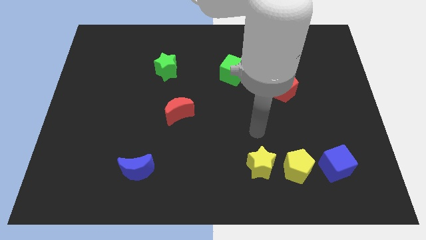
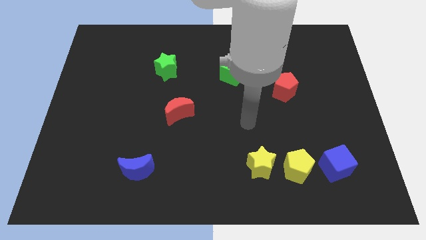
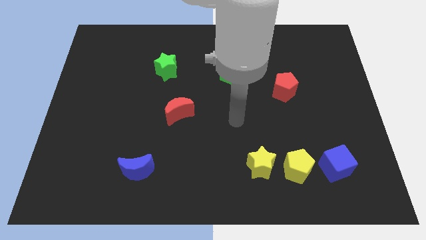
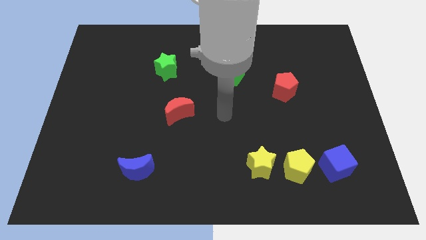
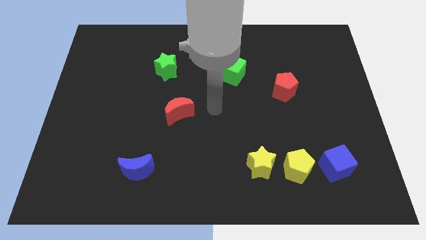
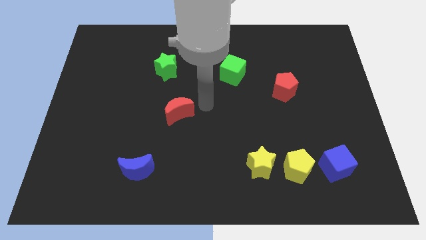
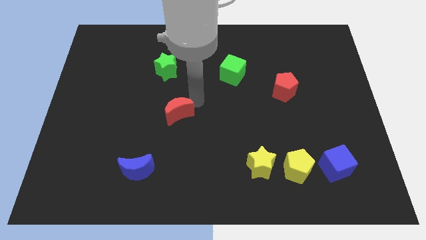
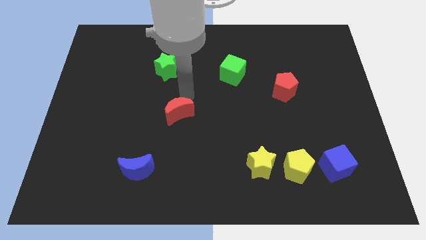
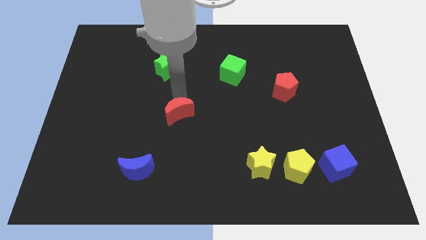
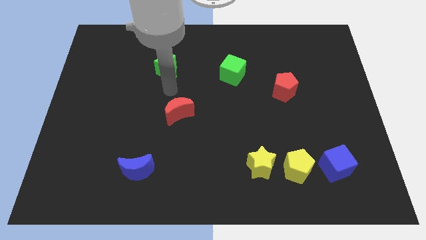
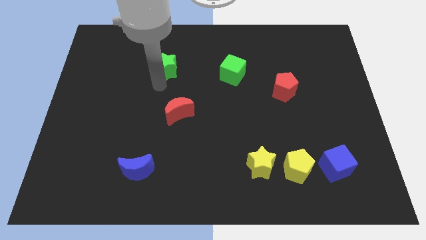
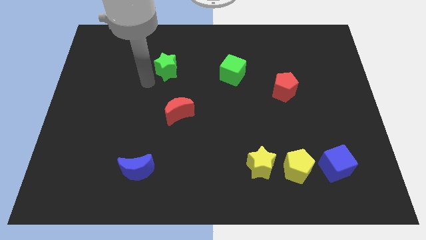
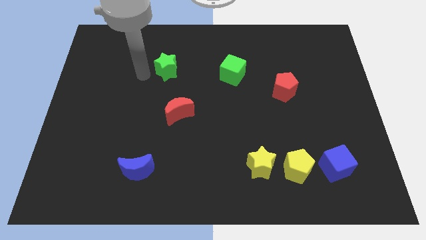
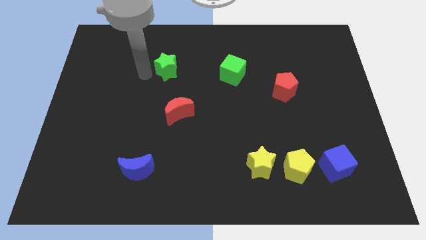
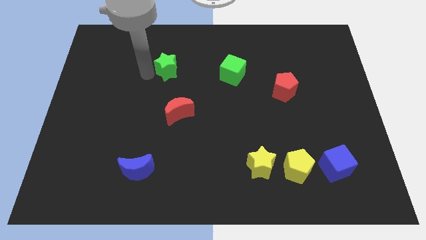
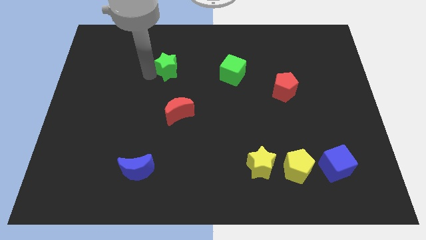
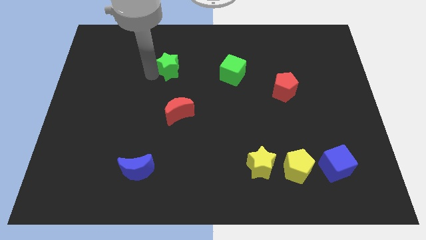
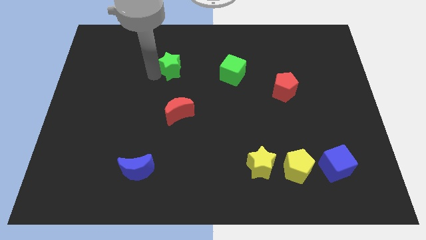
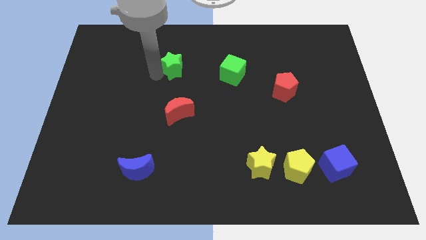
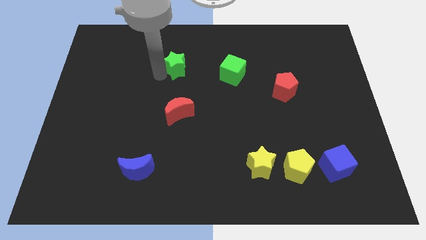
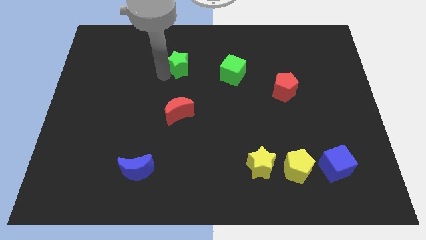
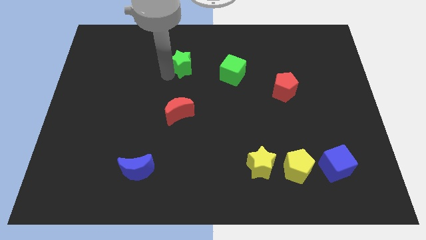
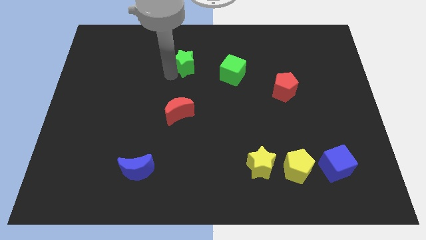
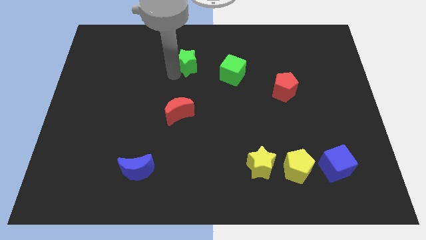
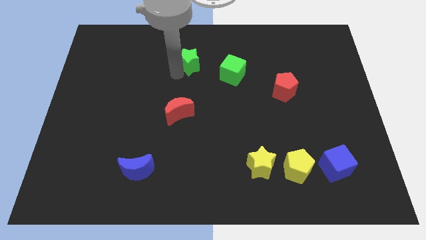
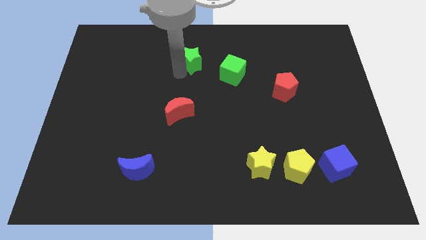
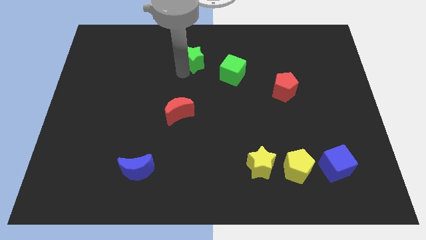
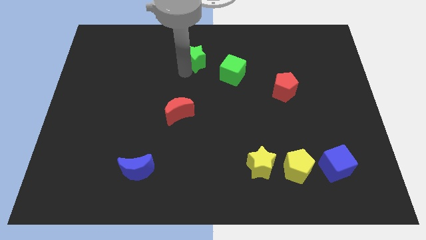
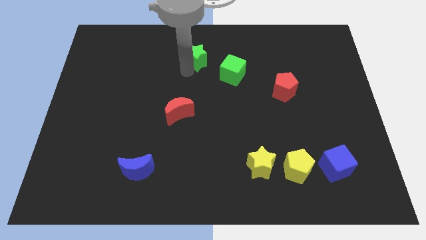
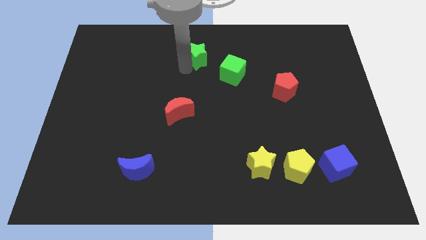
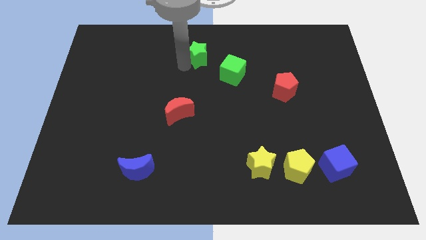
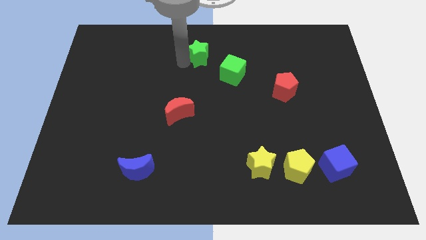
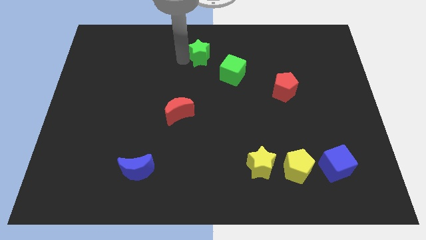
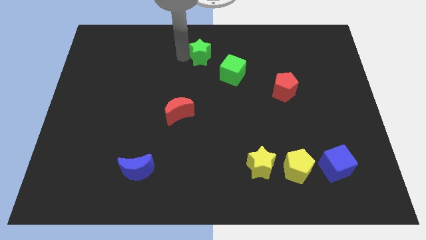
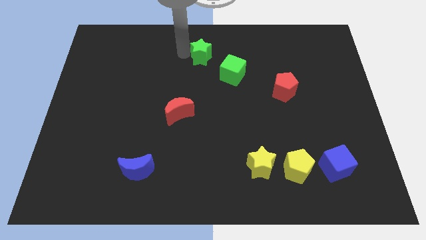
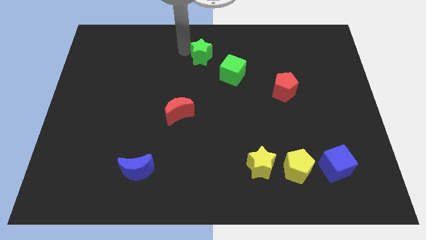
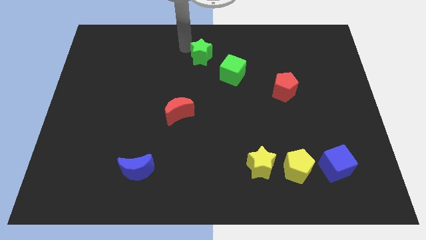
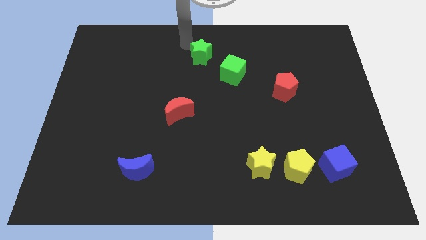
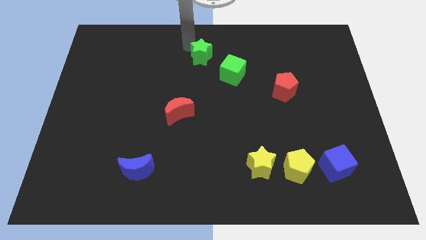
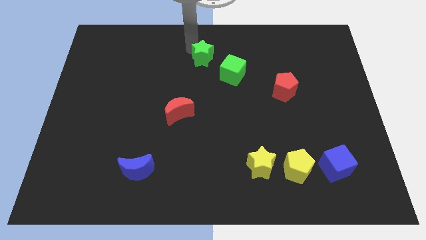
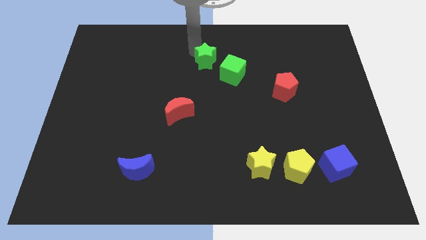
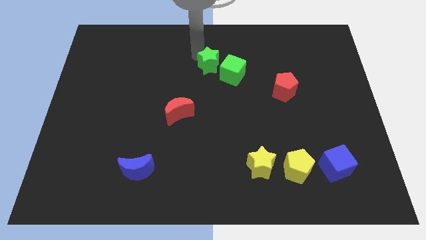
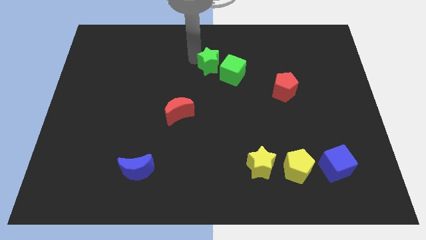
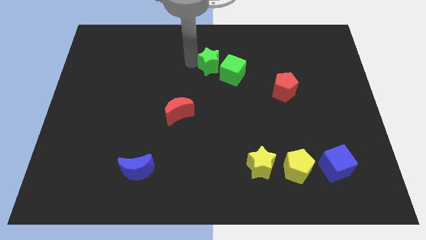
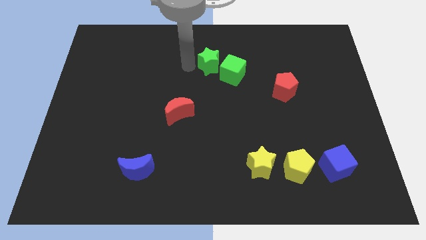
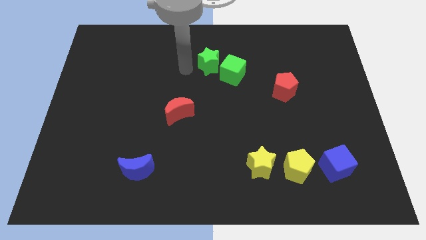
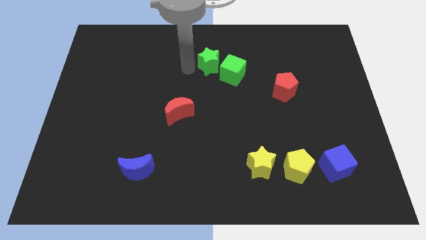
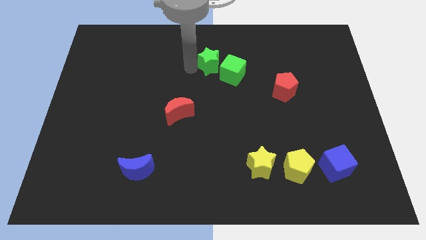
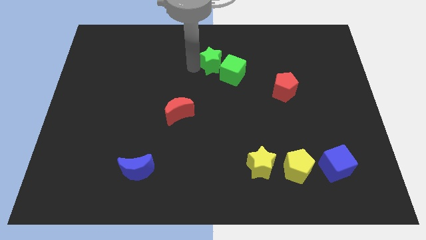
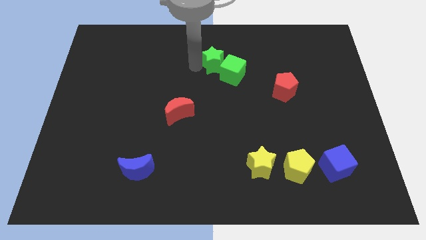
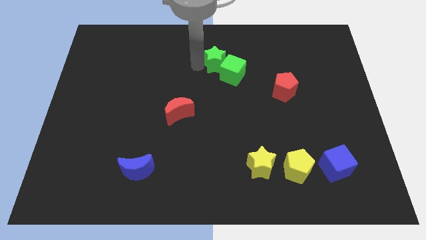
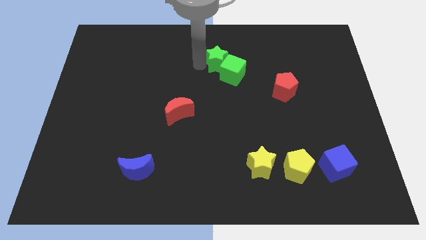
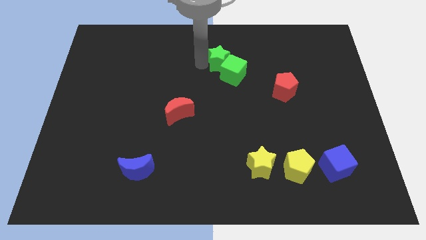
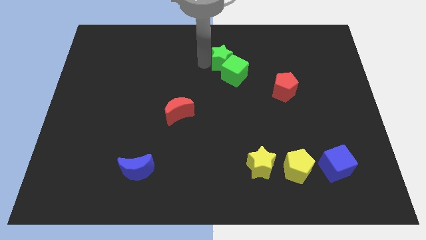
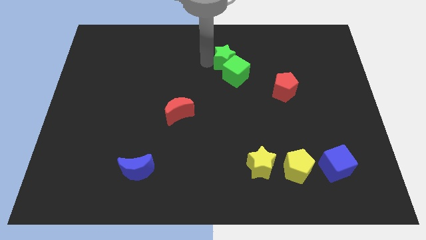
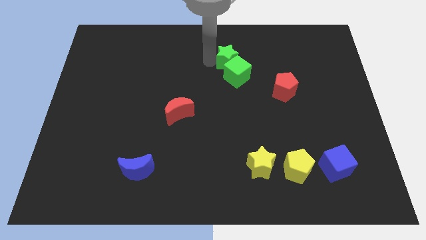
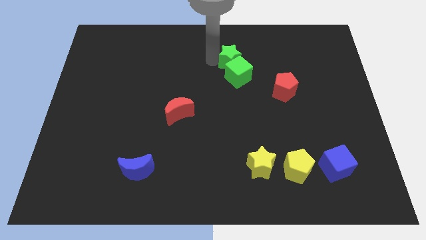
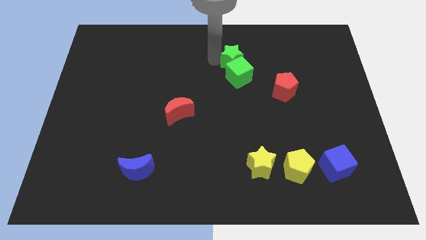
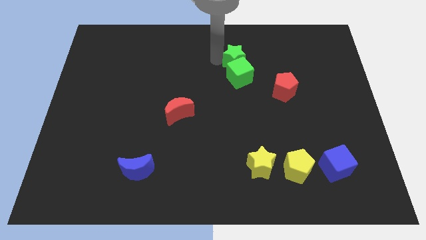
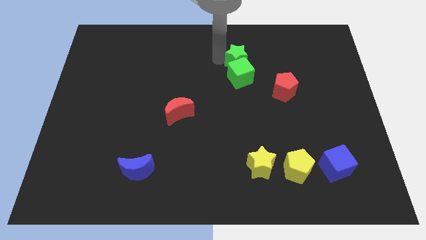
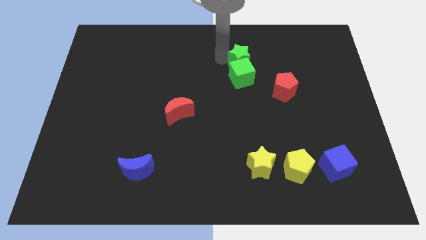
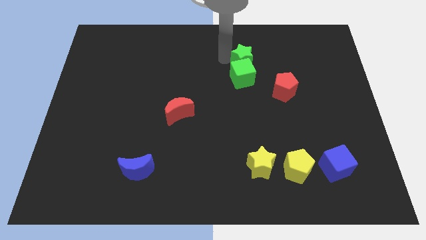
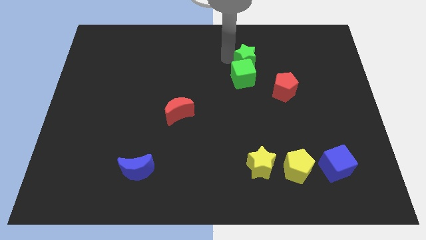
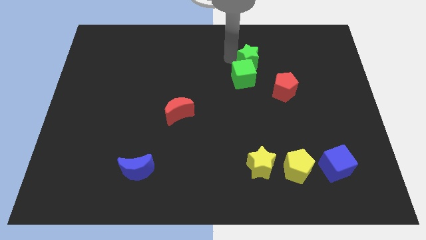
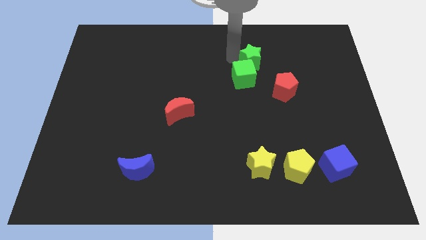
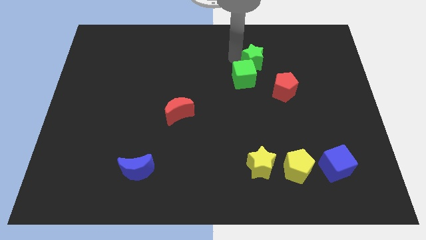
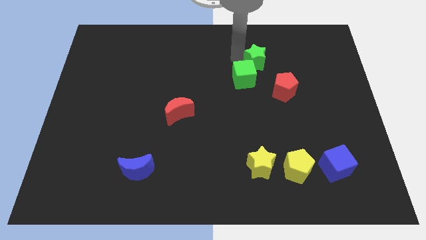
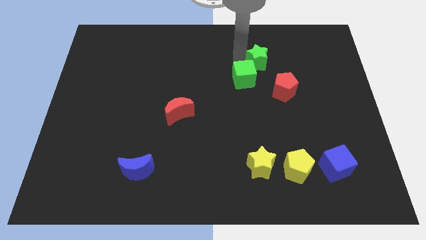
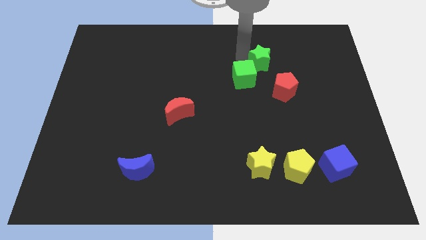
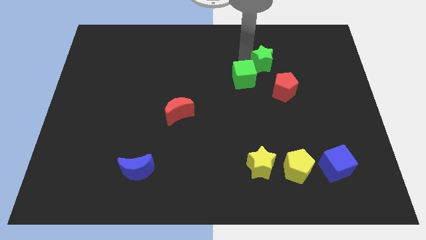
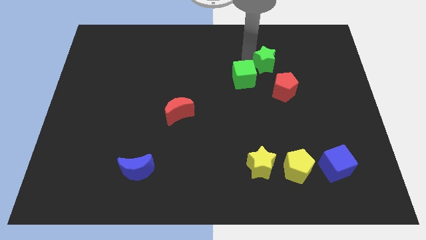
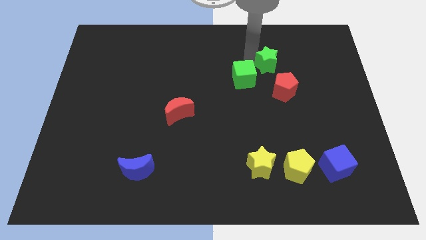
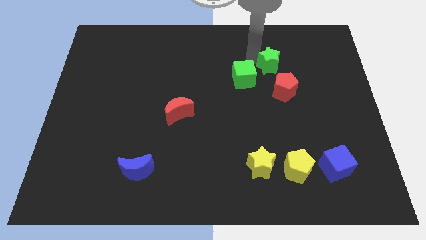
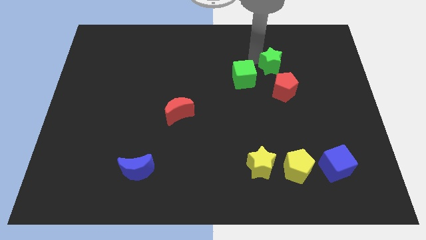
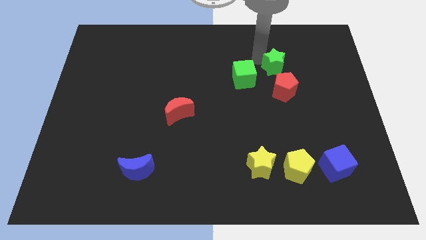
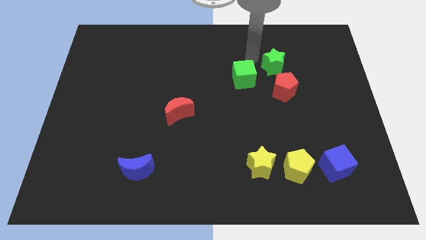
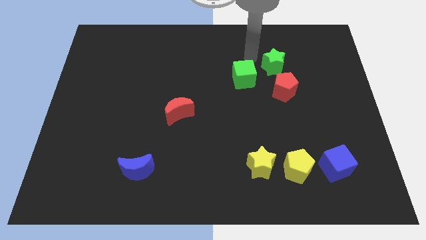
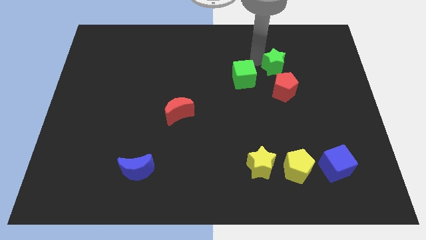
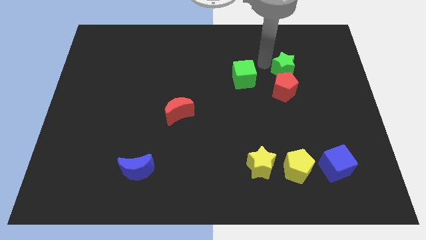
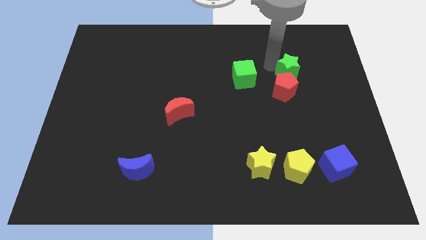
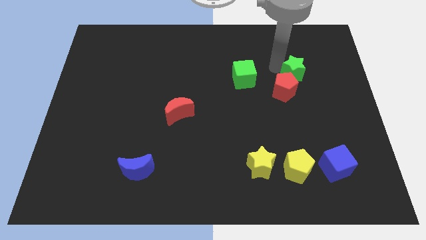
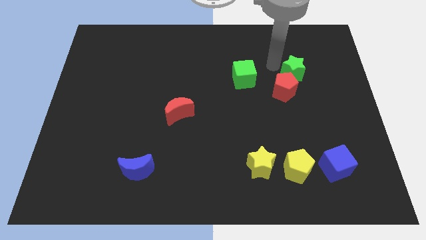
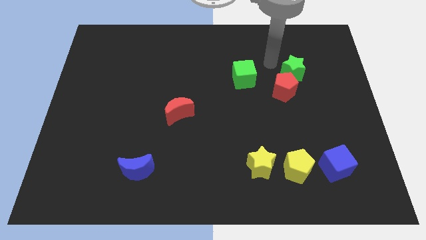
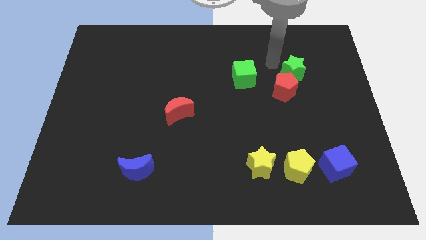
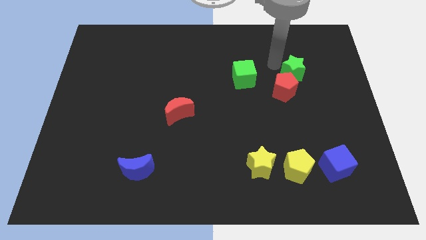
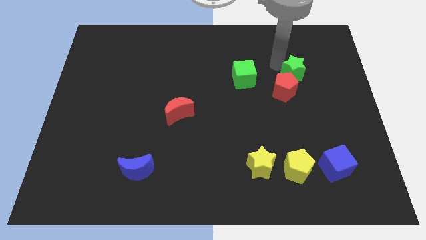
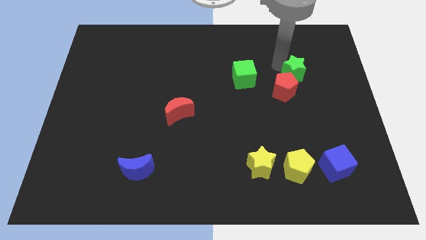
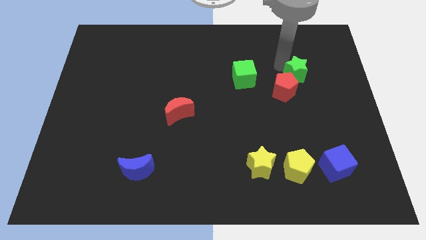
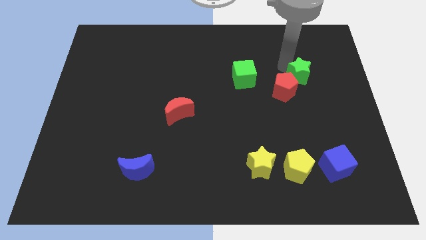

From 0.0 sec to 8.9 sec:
put the green star to the right of the red pentagon
